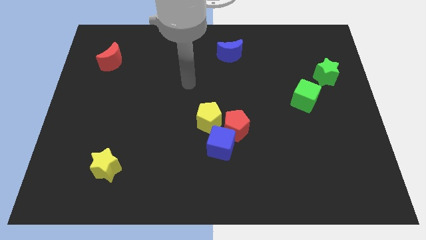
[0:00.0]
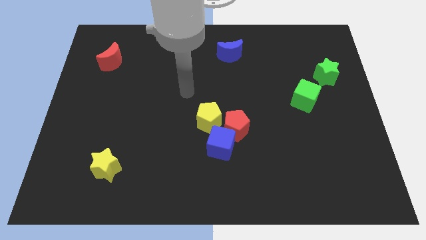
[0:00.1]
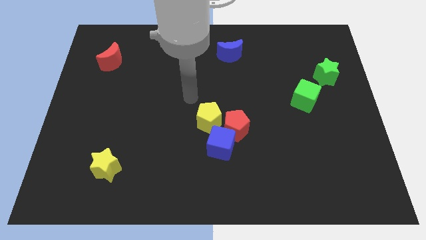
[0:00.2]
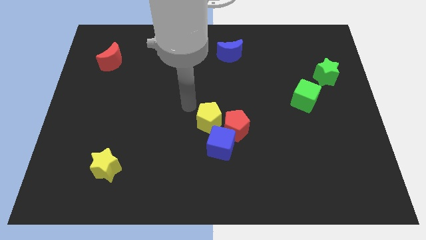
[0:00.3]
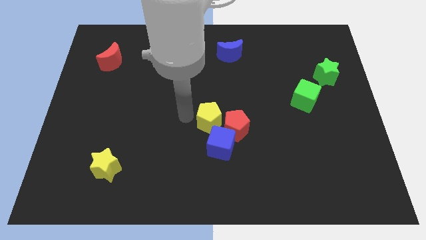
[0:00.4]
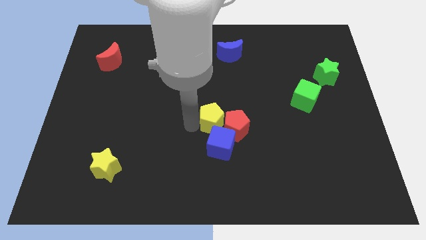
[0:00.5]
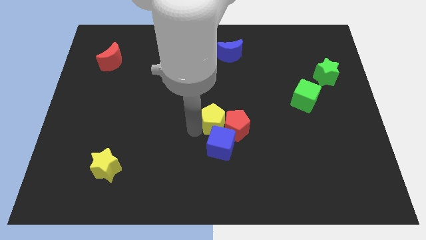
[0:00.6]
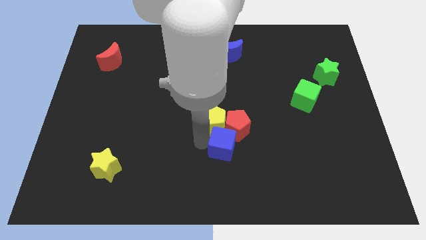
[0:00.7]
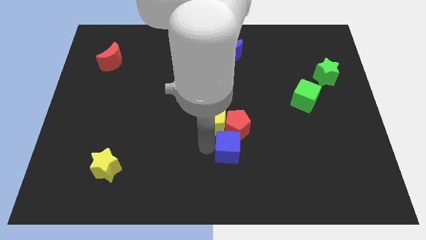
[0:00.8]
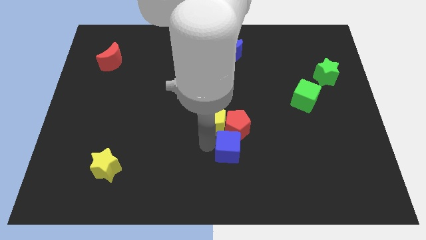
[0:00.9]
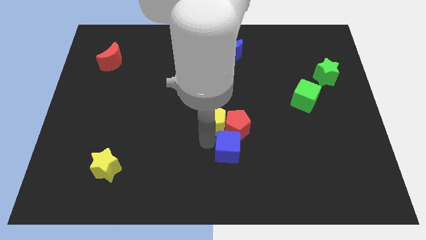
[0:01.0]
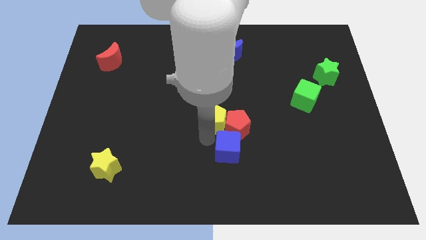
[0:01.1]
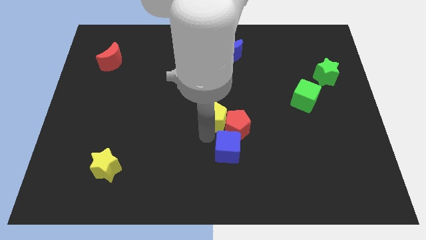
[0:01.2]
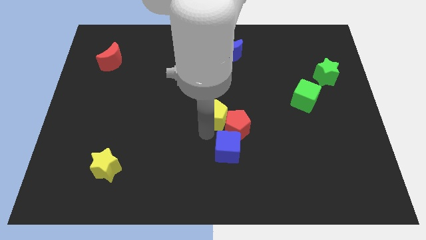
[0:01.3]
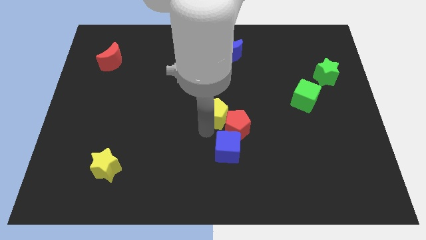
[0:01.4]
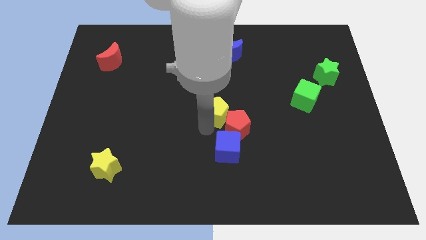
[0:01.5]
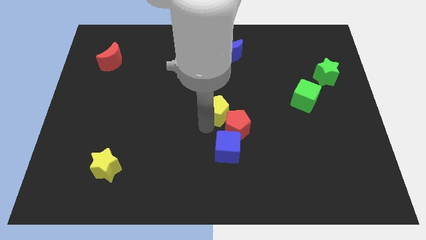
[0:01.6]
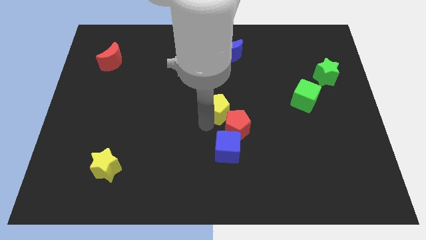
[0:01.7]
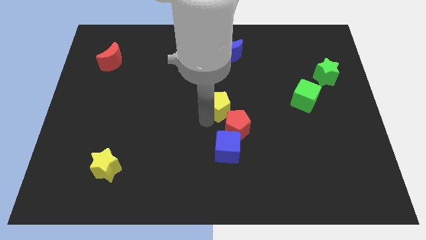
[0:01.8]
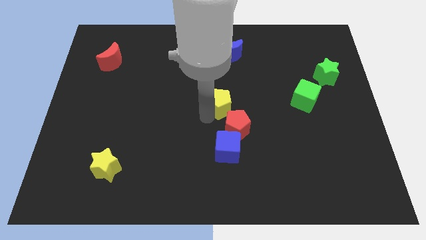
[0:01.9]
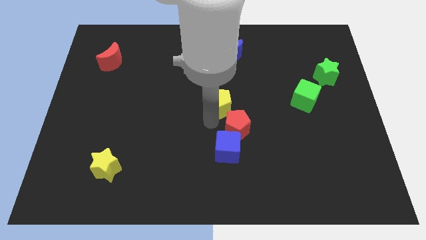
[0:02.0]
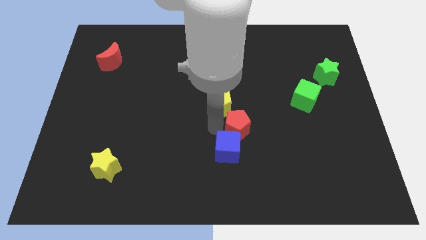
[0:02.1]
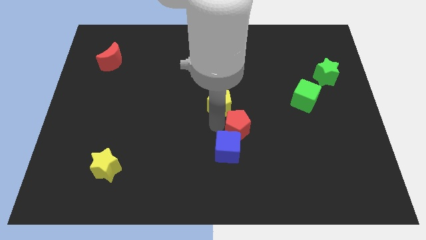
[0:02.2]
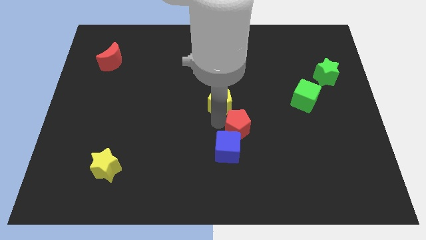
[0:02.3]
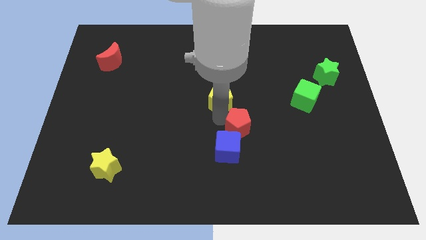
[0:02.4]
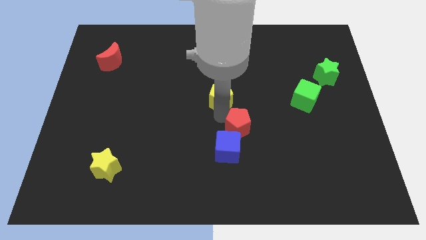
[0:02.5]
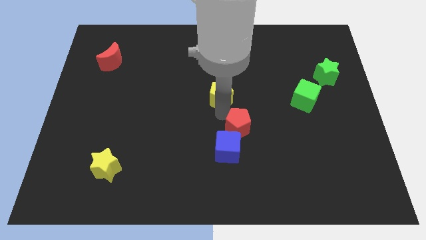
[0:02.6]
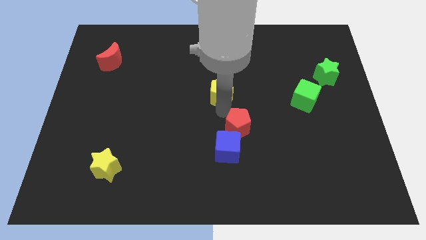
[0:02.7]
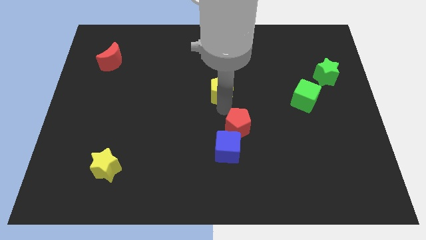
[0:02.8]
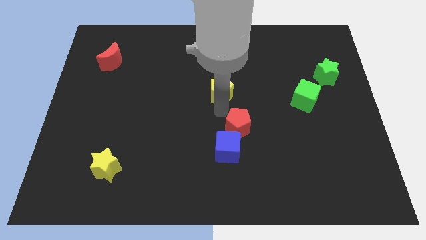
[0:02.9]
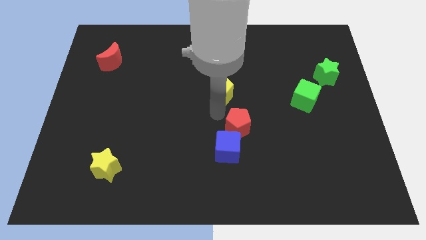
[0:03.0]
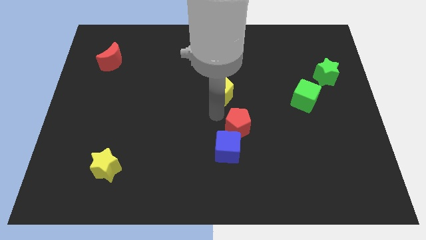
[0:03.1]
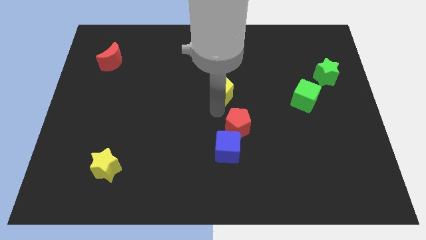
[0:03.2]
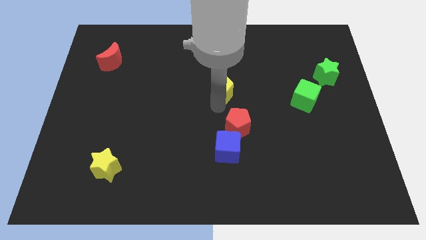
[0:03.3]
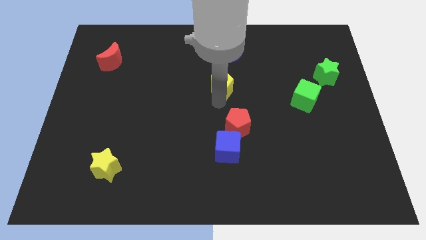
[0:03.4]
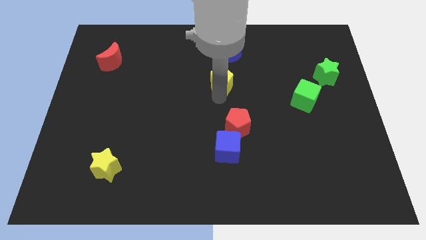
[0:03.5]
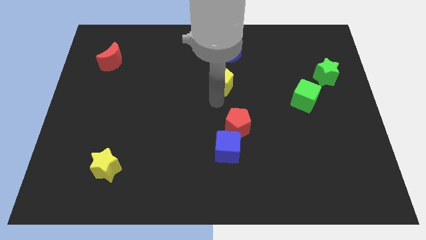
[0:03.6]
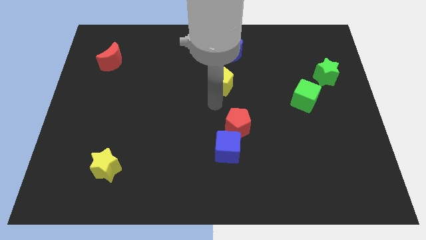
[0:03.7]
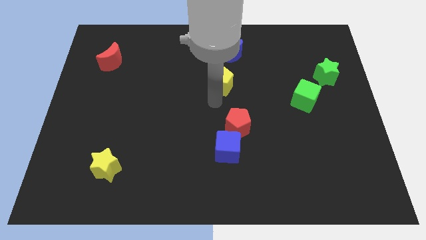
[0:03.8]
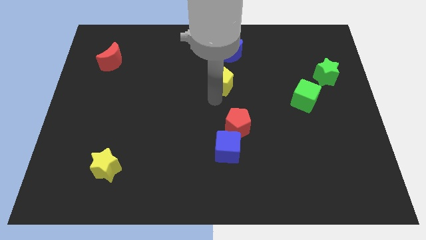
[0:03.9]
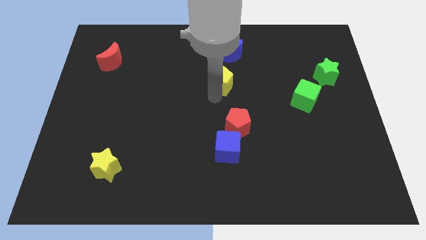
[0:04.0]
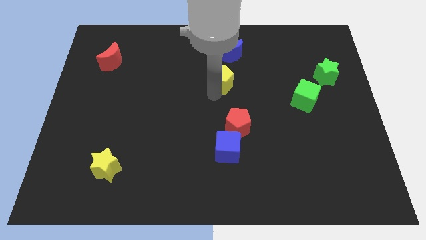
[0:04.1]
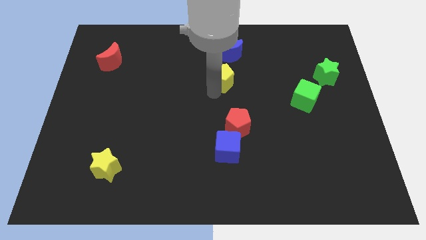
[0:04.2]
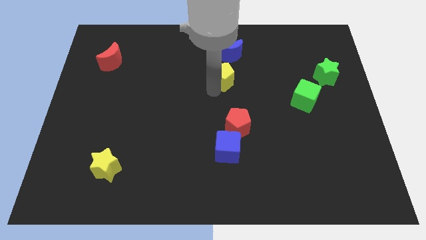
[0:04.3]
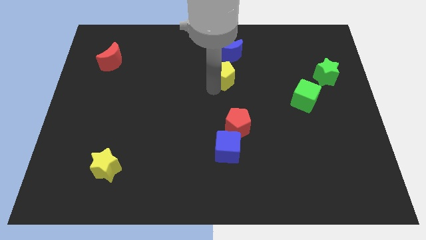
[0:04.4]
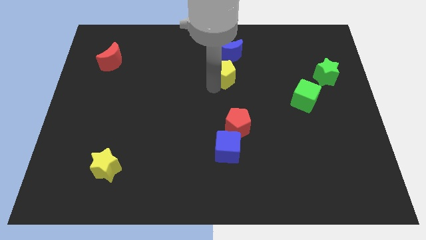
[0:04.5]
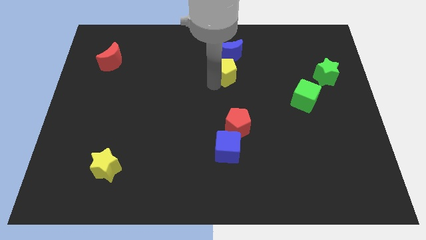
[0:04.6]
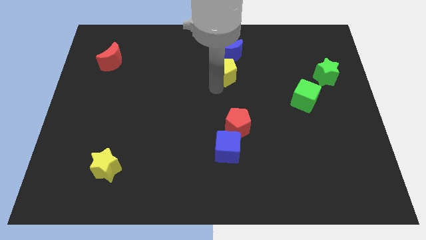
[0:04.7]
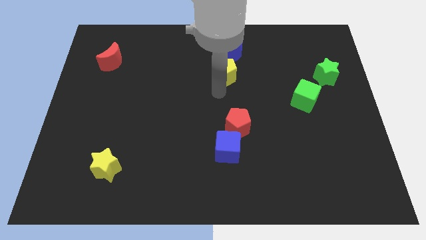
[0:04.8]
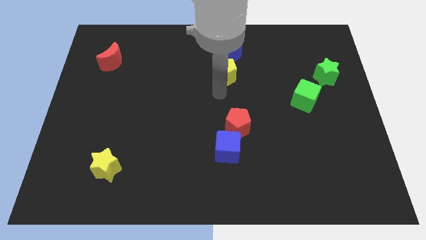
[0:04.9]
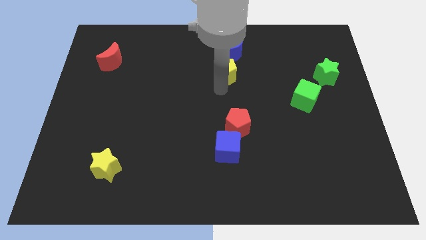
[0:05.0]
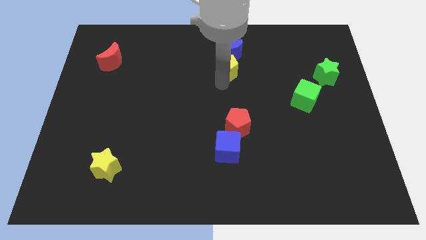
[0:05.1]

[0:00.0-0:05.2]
push the yellow pentagon towards the blue moon

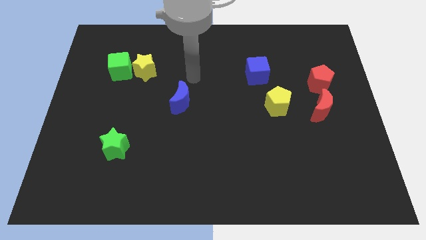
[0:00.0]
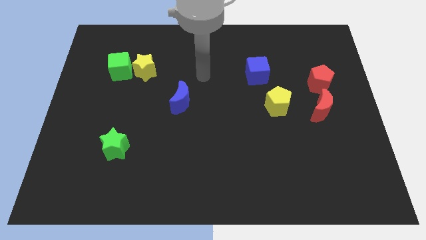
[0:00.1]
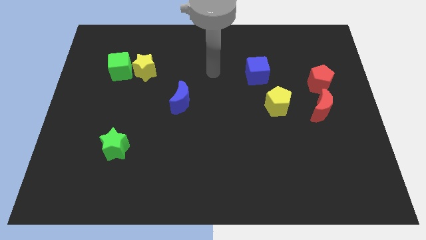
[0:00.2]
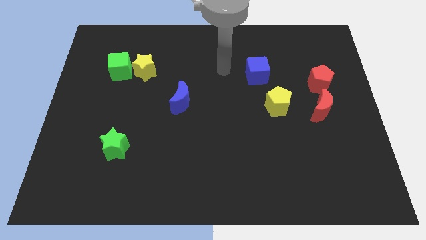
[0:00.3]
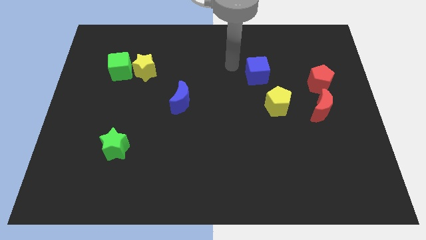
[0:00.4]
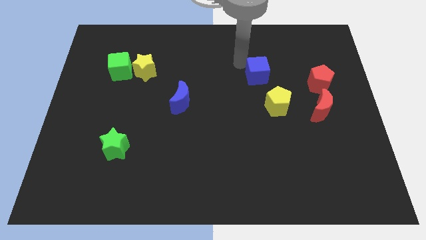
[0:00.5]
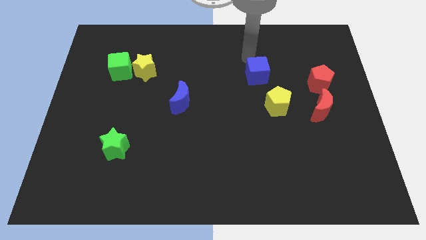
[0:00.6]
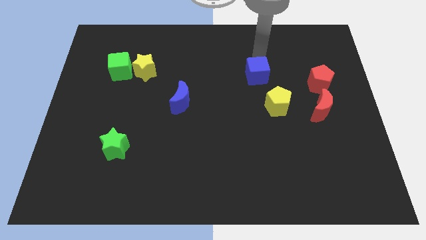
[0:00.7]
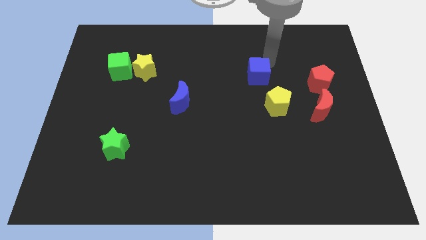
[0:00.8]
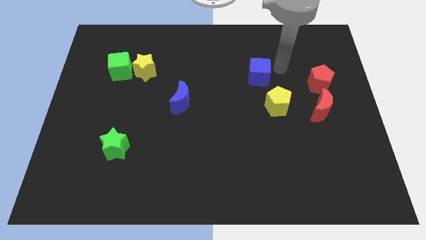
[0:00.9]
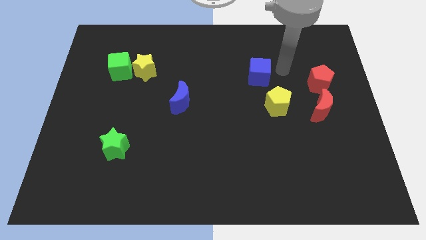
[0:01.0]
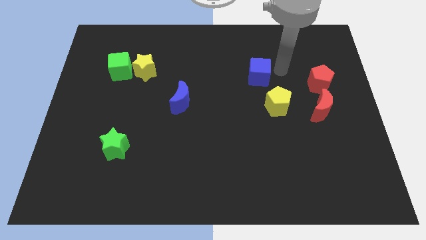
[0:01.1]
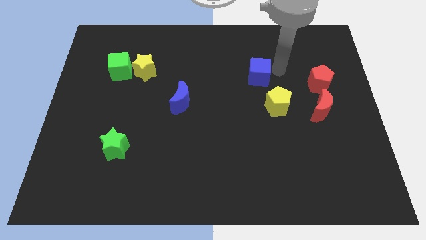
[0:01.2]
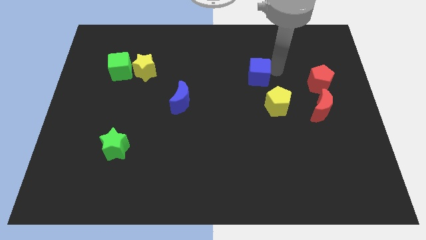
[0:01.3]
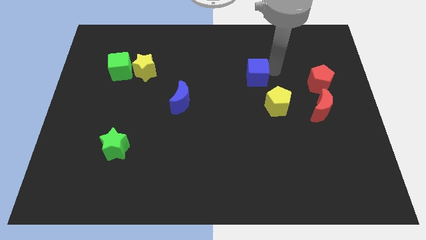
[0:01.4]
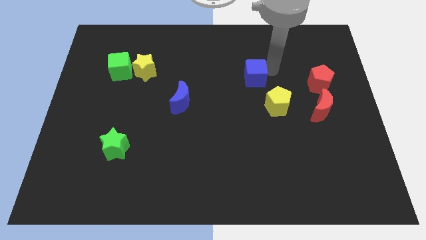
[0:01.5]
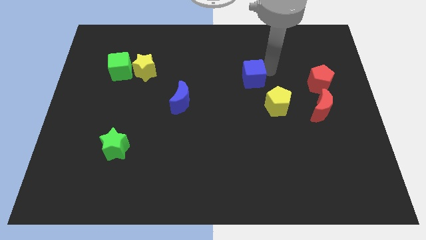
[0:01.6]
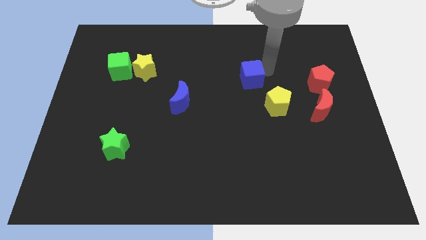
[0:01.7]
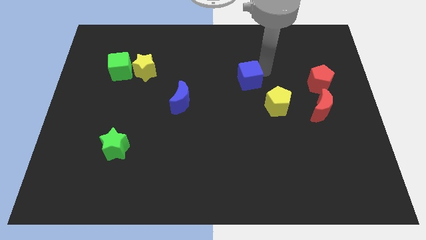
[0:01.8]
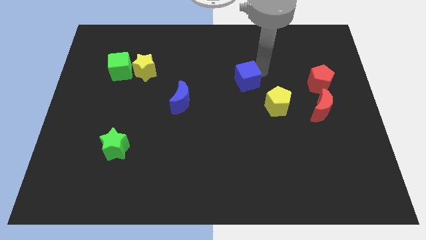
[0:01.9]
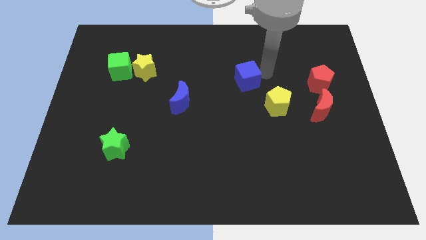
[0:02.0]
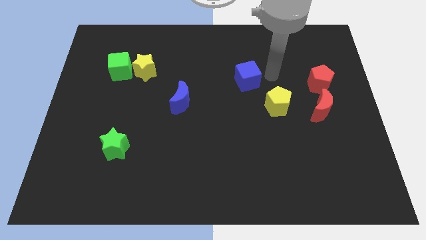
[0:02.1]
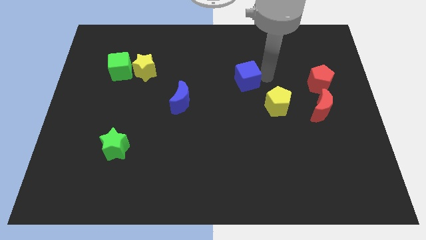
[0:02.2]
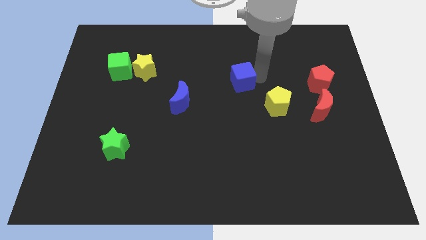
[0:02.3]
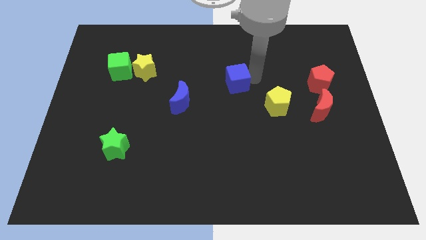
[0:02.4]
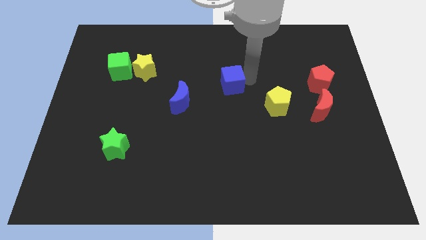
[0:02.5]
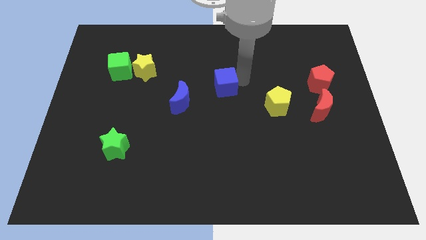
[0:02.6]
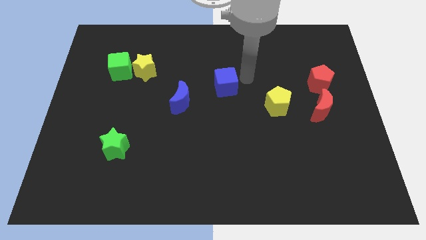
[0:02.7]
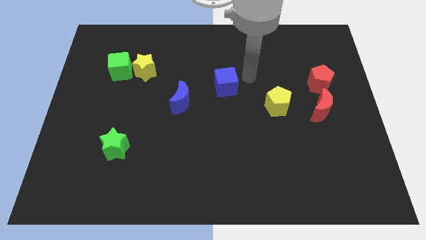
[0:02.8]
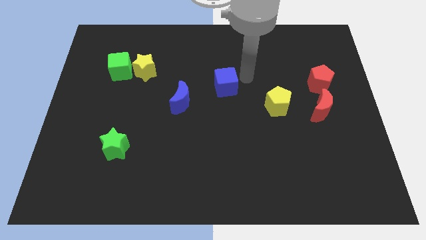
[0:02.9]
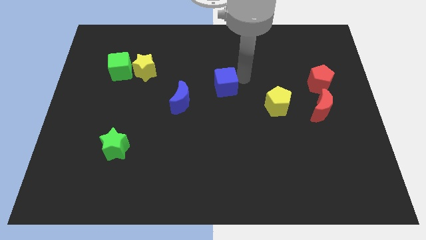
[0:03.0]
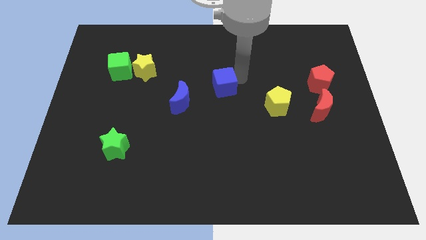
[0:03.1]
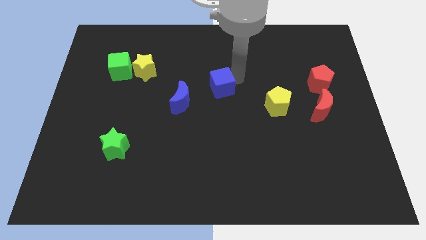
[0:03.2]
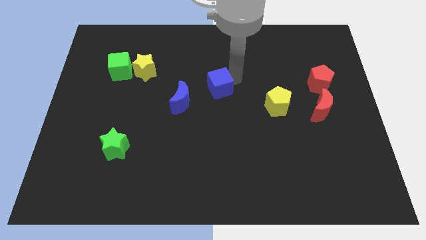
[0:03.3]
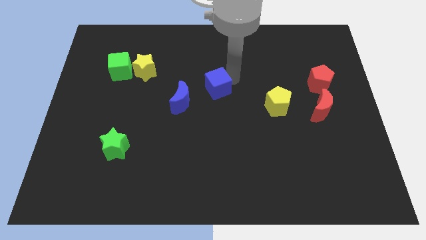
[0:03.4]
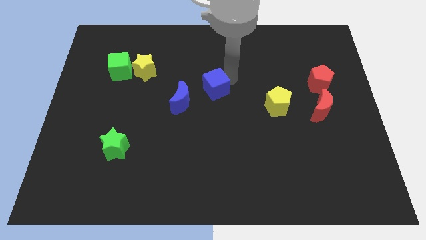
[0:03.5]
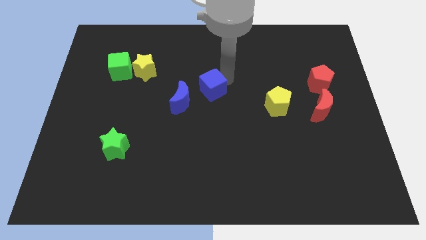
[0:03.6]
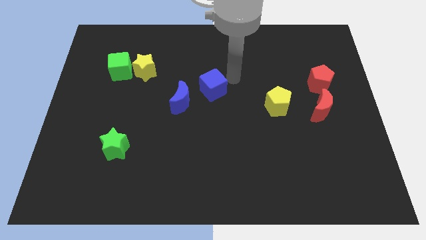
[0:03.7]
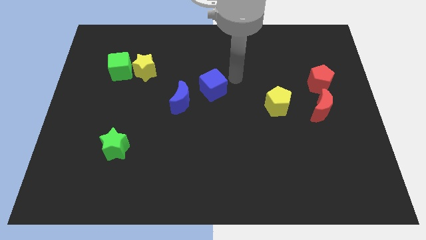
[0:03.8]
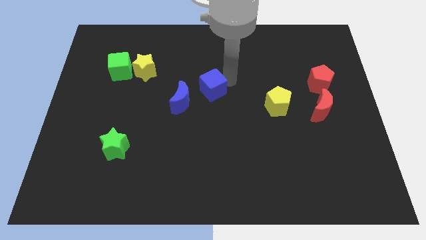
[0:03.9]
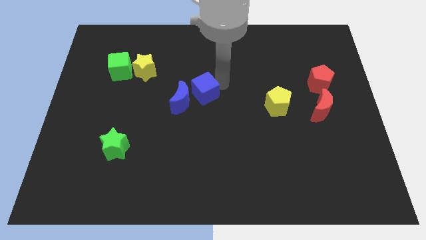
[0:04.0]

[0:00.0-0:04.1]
slide the blue cube to the blue moon
